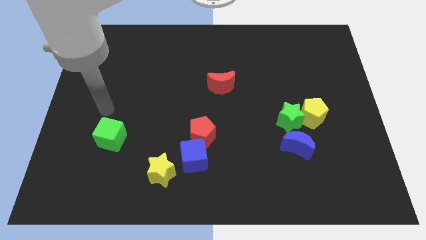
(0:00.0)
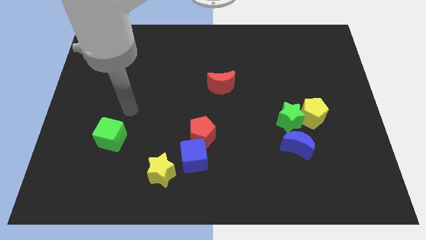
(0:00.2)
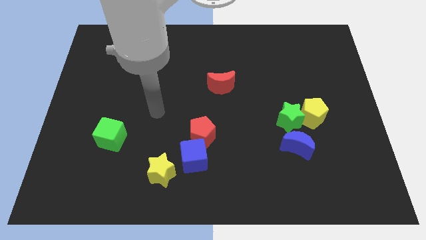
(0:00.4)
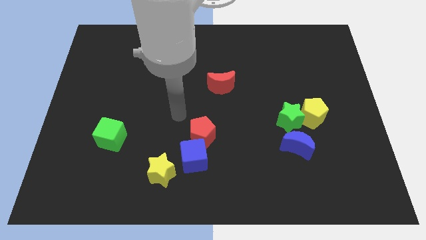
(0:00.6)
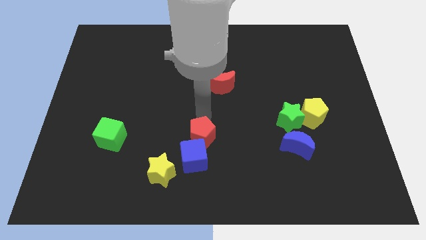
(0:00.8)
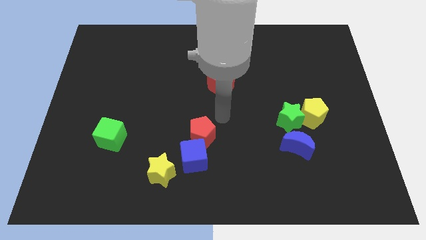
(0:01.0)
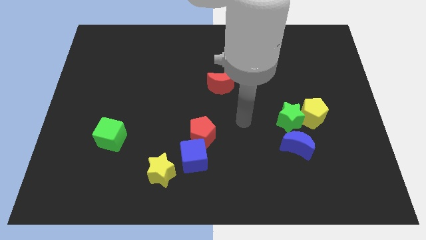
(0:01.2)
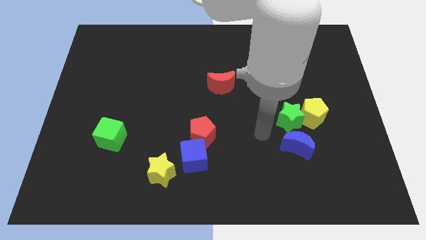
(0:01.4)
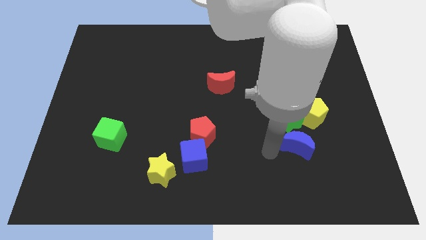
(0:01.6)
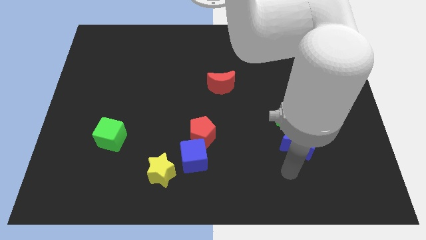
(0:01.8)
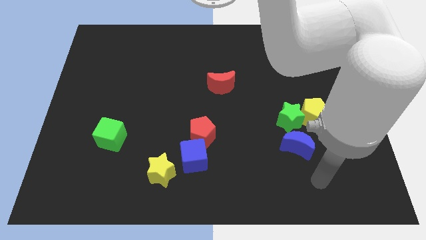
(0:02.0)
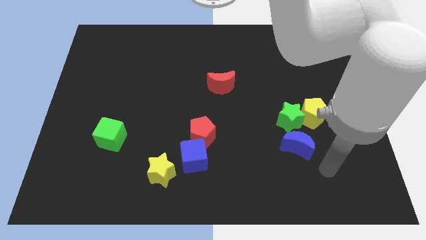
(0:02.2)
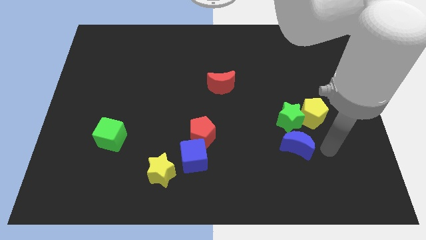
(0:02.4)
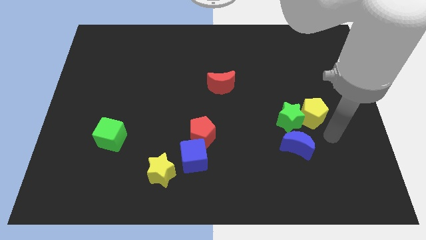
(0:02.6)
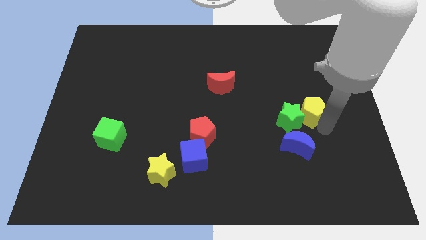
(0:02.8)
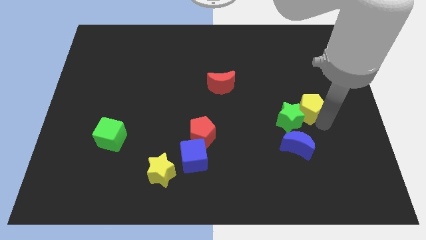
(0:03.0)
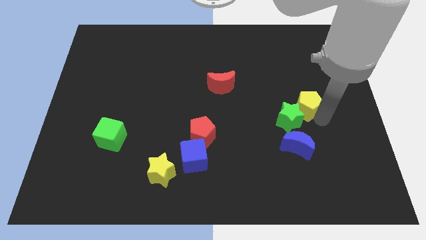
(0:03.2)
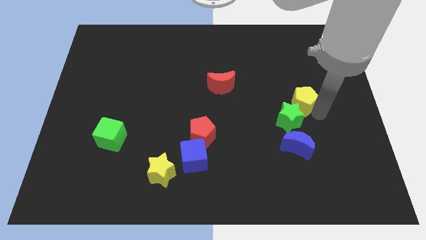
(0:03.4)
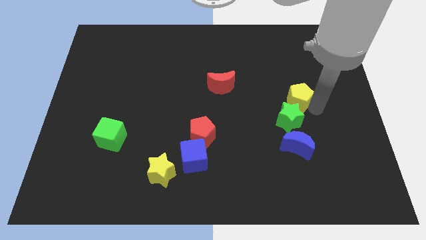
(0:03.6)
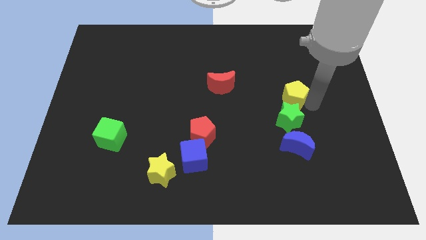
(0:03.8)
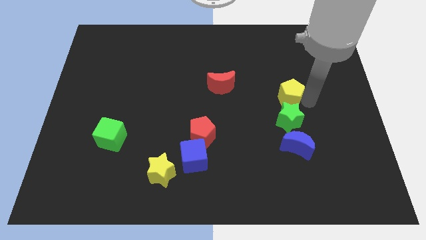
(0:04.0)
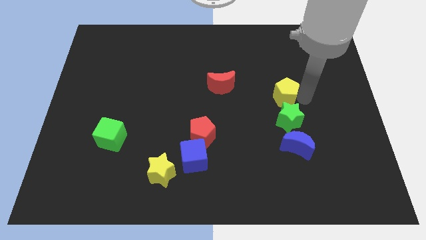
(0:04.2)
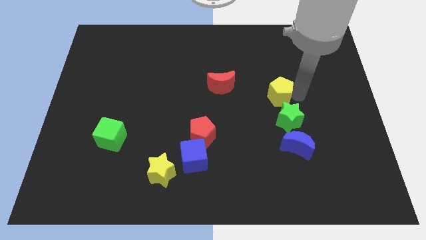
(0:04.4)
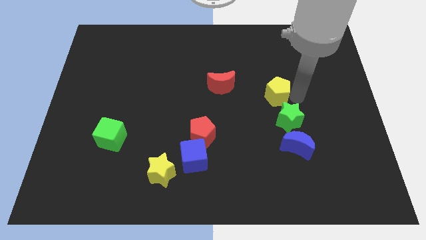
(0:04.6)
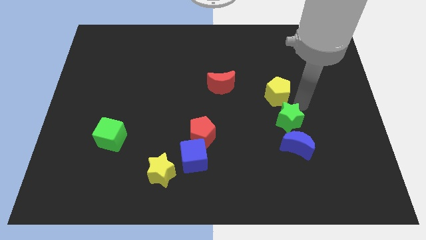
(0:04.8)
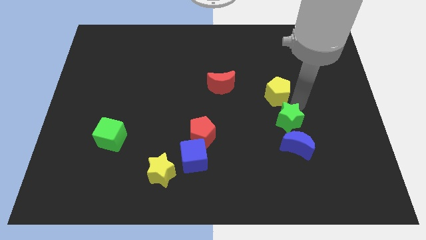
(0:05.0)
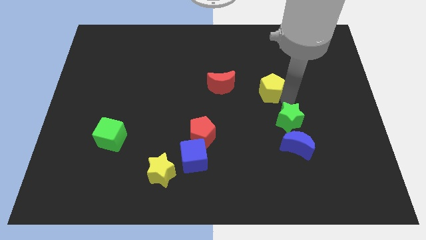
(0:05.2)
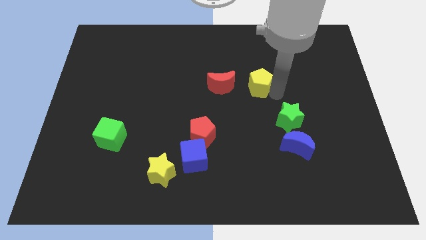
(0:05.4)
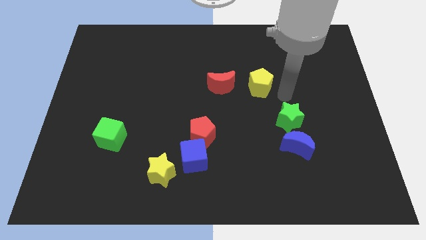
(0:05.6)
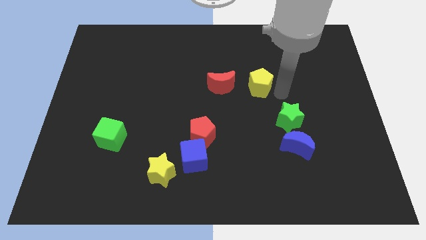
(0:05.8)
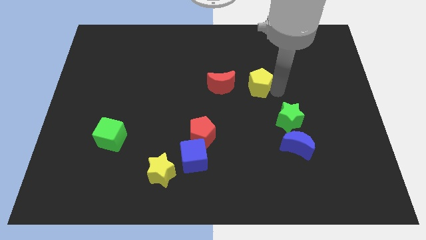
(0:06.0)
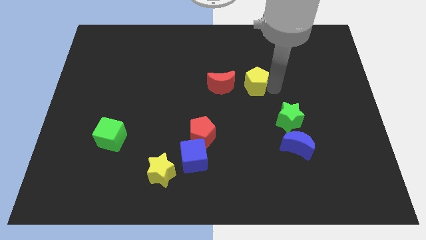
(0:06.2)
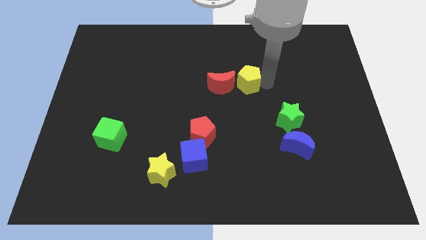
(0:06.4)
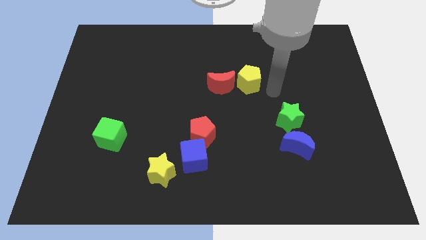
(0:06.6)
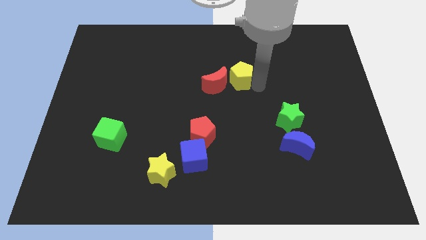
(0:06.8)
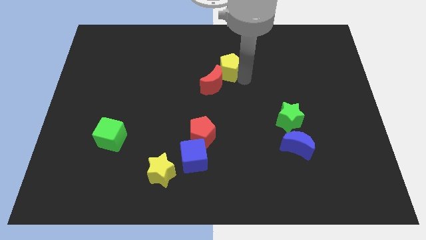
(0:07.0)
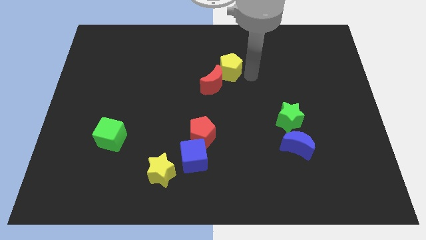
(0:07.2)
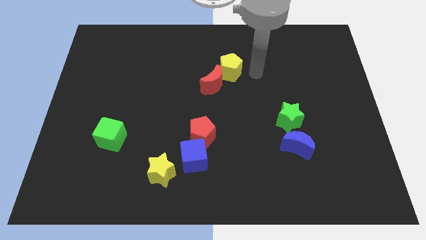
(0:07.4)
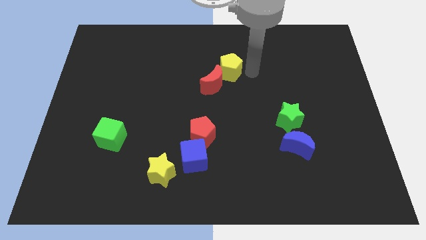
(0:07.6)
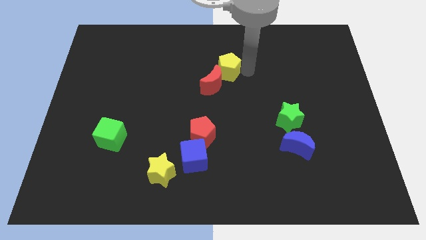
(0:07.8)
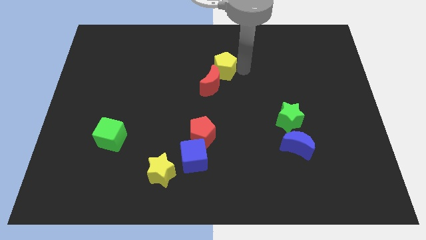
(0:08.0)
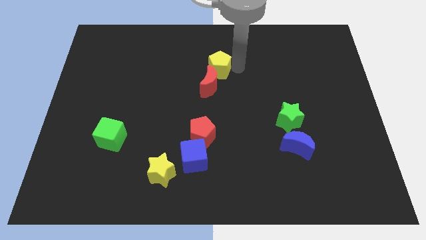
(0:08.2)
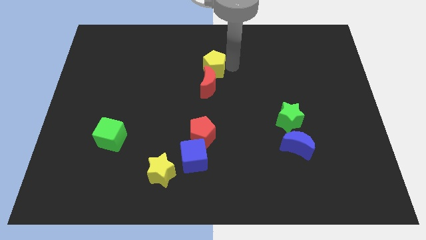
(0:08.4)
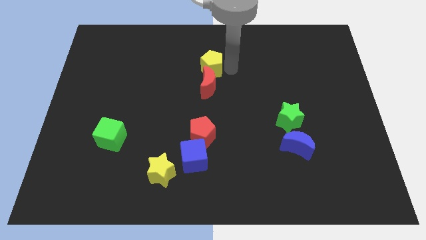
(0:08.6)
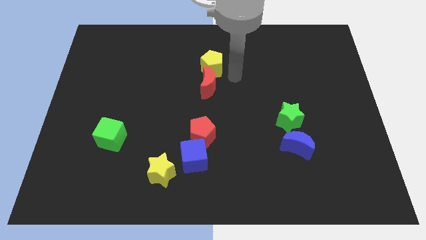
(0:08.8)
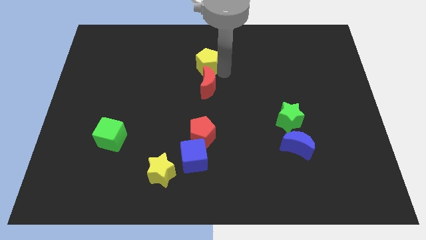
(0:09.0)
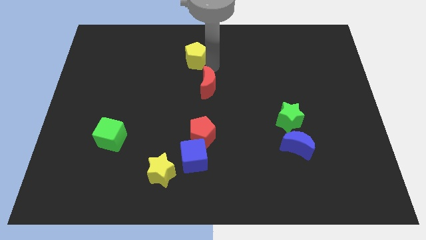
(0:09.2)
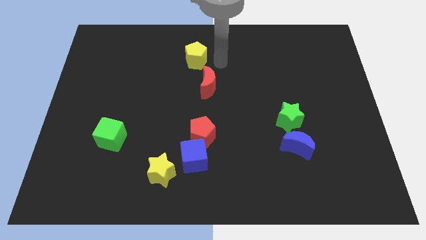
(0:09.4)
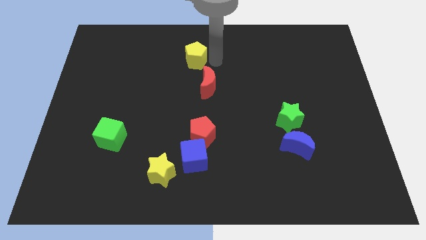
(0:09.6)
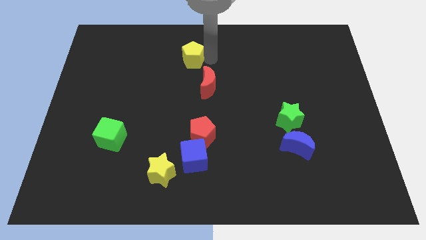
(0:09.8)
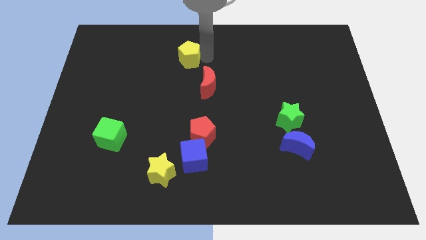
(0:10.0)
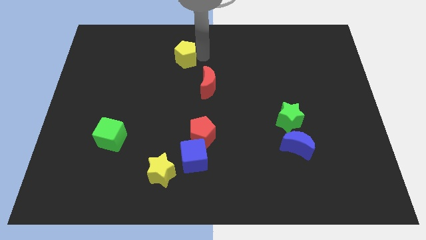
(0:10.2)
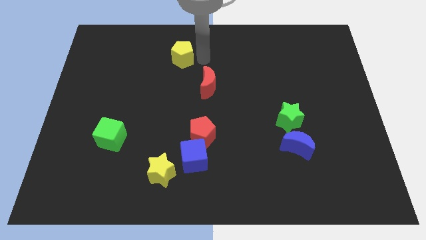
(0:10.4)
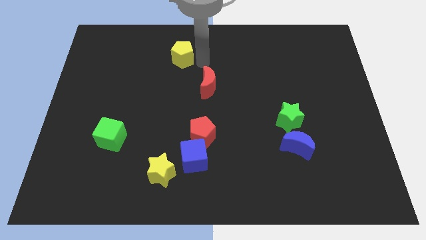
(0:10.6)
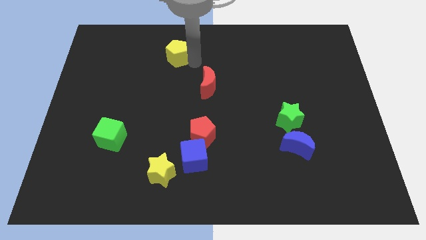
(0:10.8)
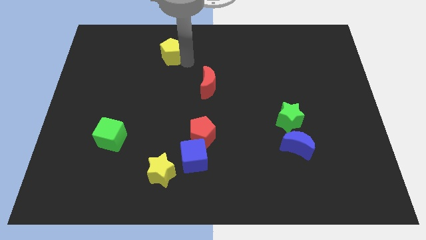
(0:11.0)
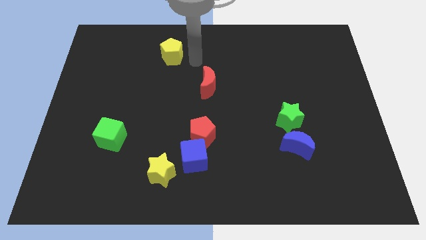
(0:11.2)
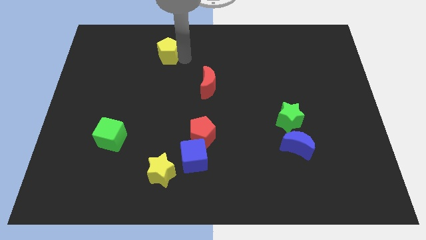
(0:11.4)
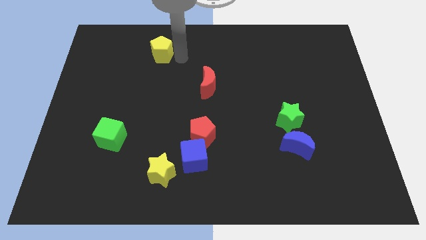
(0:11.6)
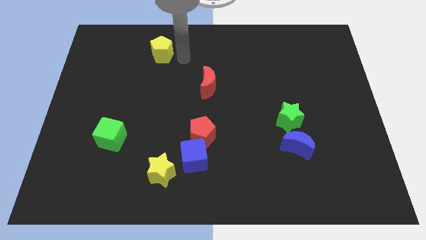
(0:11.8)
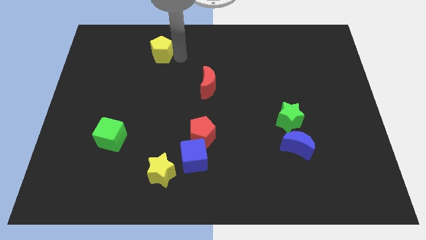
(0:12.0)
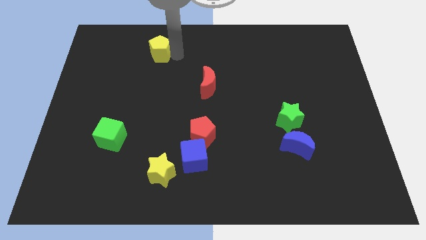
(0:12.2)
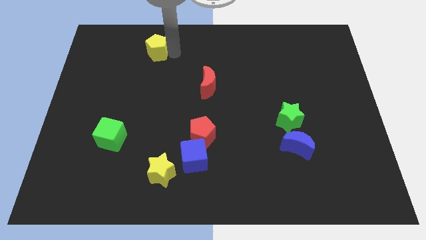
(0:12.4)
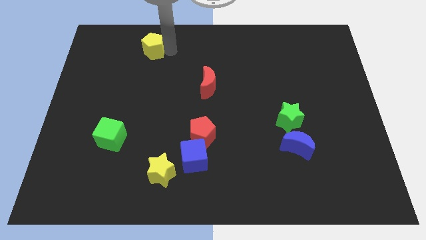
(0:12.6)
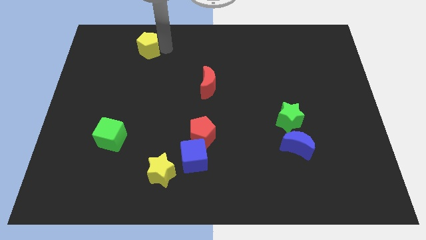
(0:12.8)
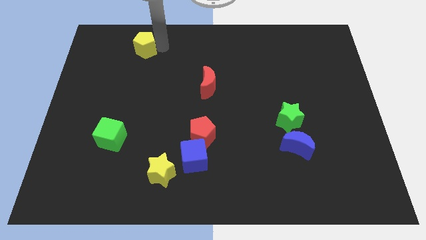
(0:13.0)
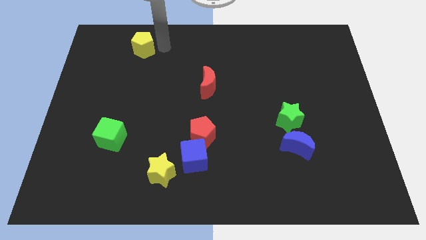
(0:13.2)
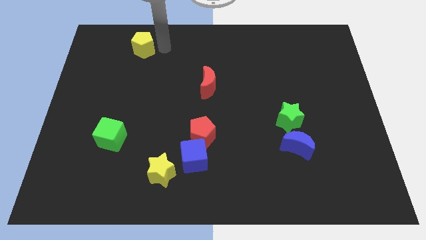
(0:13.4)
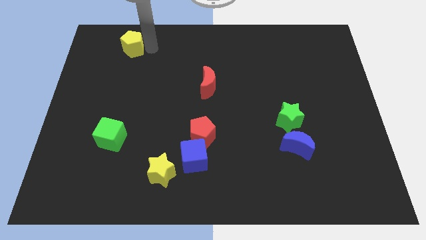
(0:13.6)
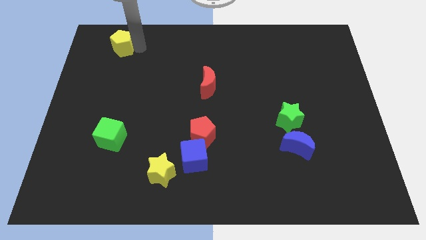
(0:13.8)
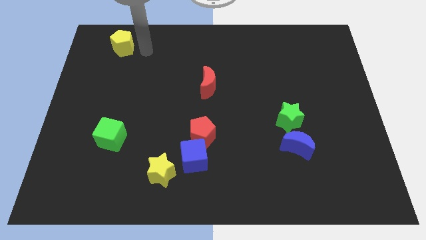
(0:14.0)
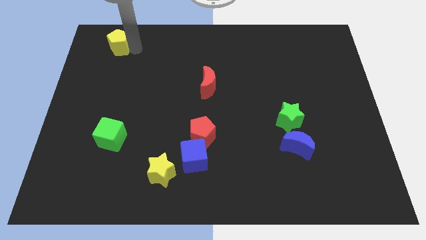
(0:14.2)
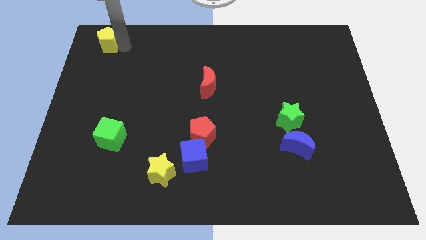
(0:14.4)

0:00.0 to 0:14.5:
slide the yellow pentagon to the upper left corner
